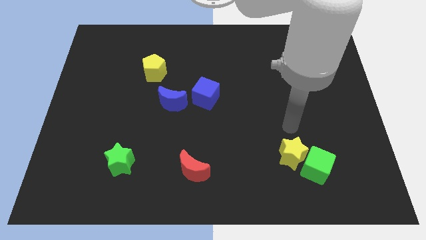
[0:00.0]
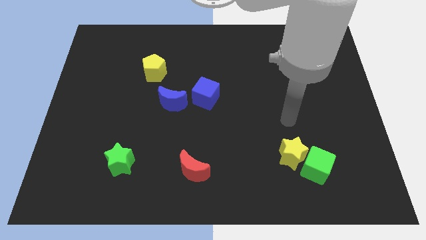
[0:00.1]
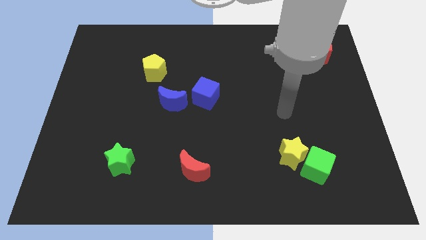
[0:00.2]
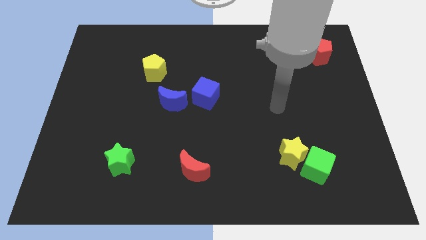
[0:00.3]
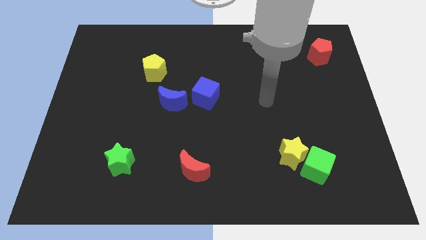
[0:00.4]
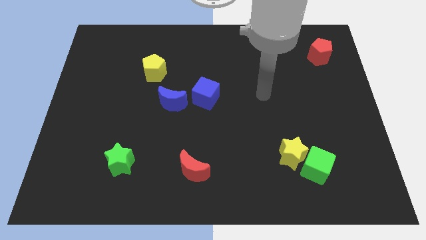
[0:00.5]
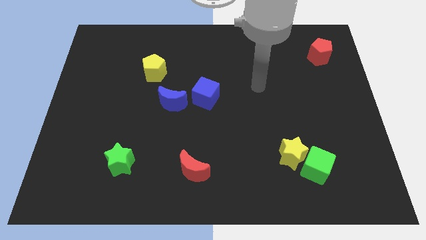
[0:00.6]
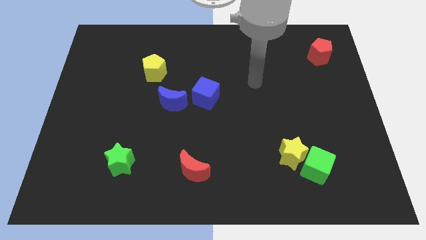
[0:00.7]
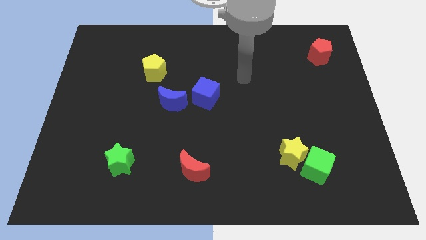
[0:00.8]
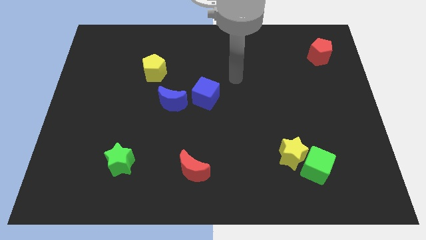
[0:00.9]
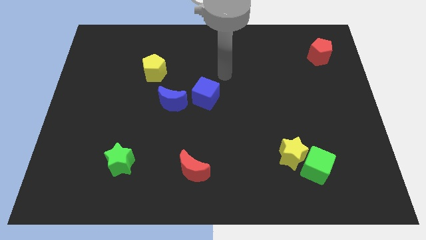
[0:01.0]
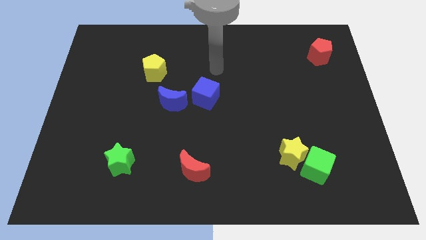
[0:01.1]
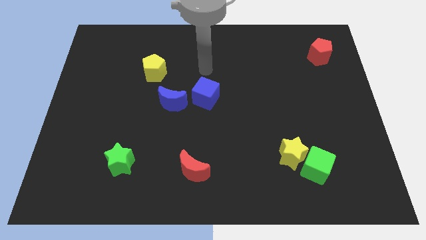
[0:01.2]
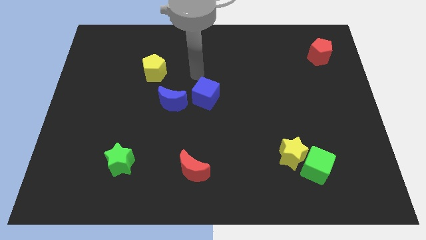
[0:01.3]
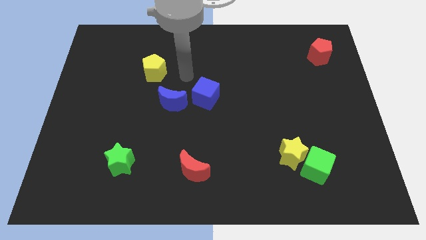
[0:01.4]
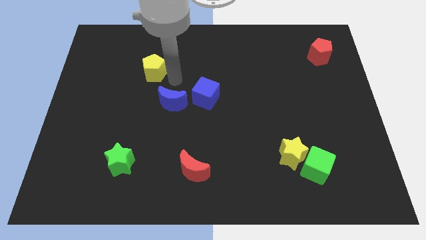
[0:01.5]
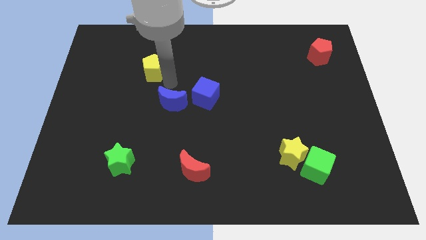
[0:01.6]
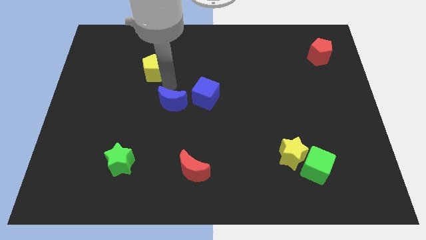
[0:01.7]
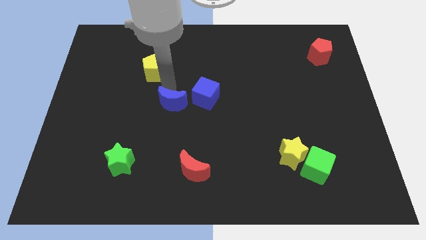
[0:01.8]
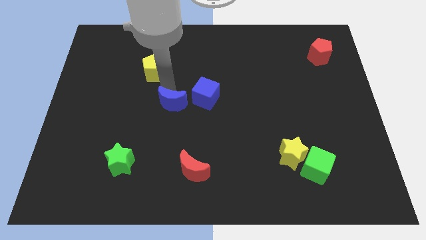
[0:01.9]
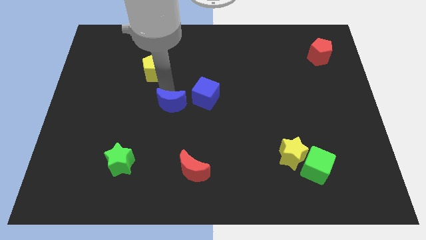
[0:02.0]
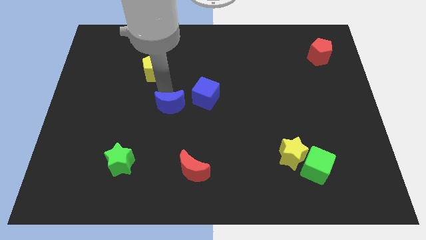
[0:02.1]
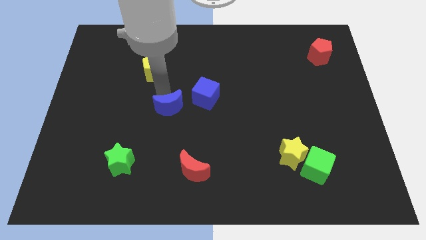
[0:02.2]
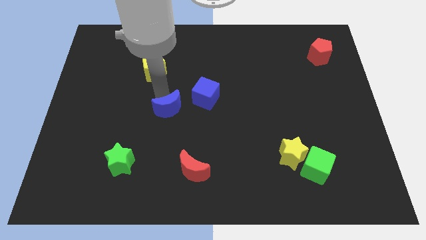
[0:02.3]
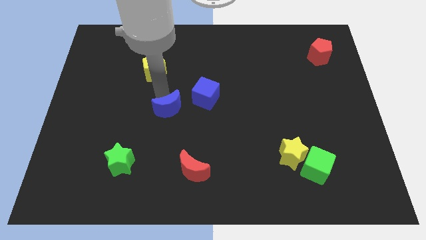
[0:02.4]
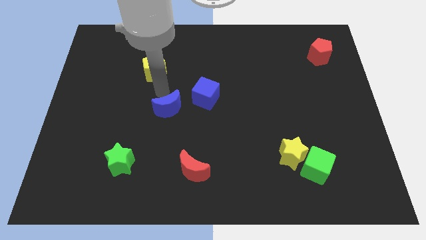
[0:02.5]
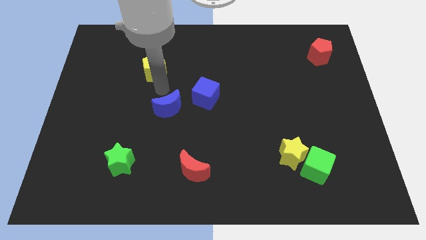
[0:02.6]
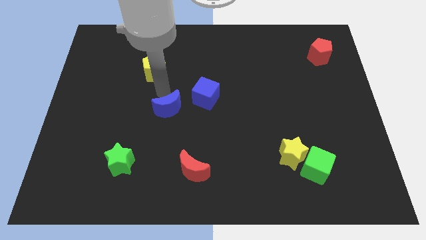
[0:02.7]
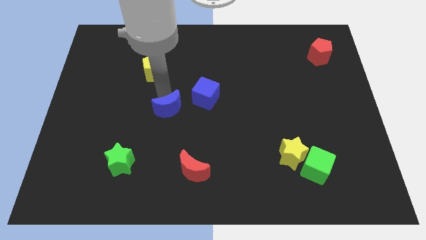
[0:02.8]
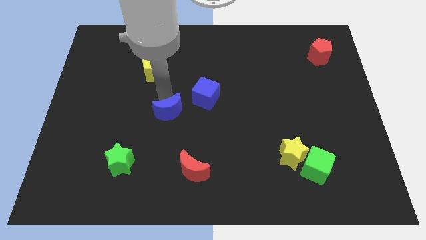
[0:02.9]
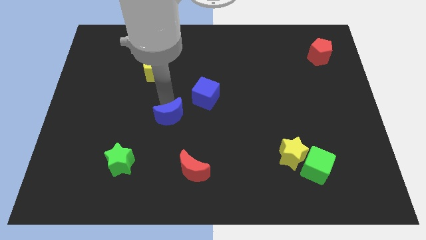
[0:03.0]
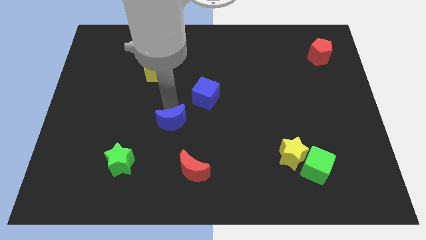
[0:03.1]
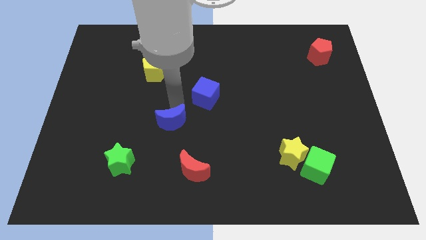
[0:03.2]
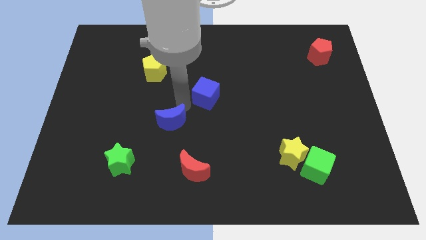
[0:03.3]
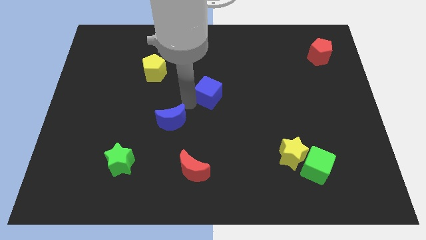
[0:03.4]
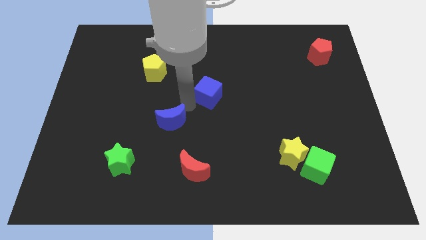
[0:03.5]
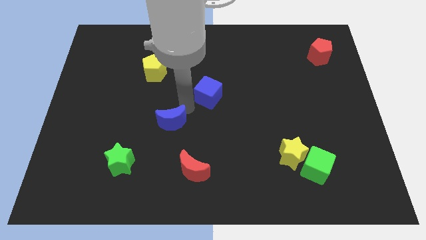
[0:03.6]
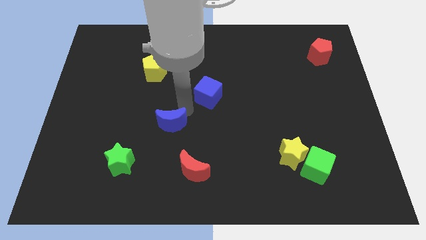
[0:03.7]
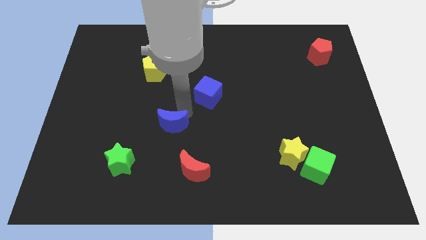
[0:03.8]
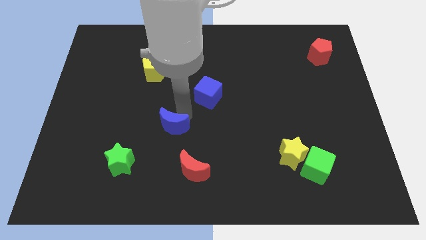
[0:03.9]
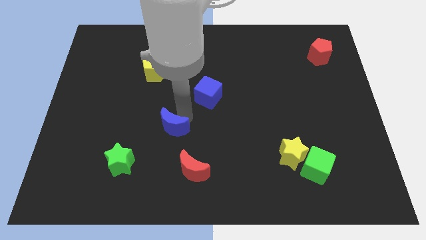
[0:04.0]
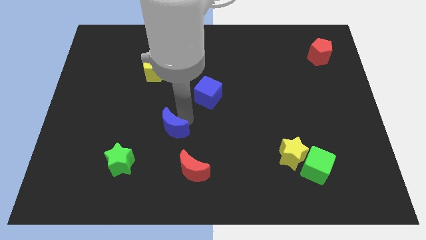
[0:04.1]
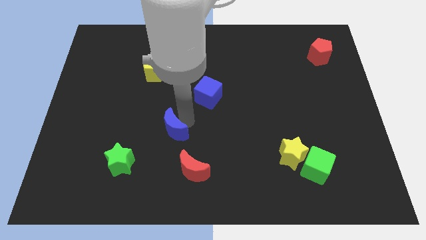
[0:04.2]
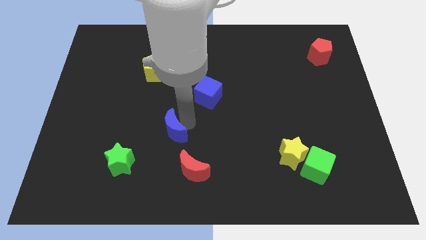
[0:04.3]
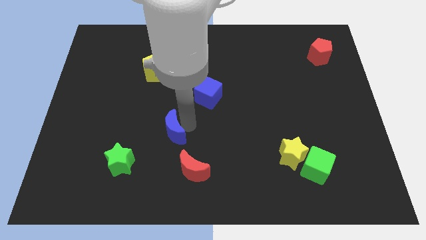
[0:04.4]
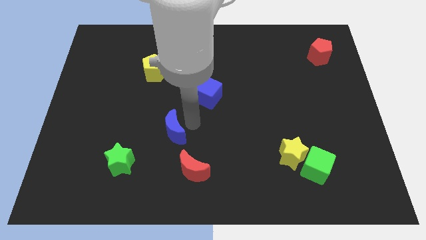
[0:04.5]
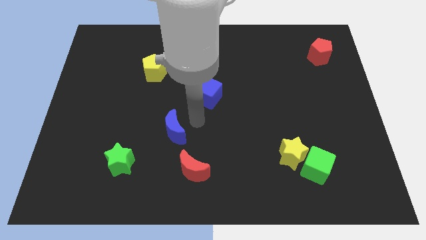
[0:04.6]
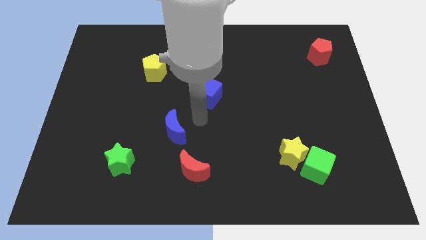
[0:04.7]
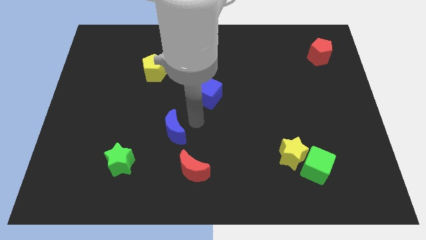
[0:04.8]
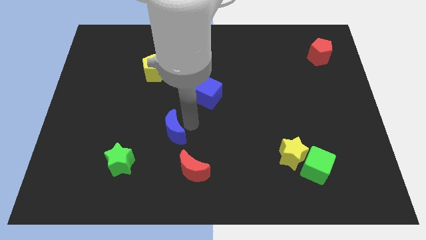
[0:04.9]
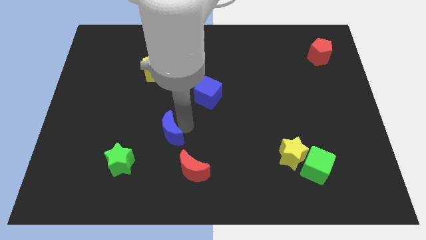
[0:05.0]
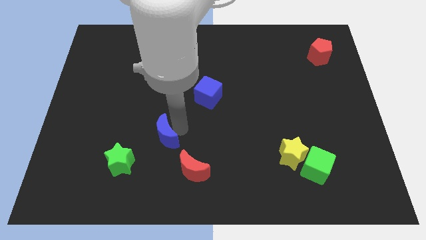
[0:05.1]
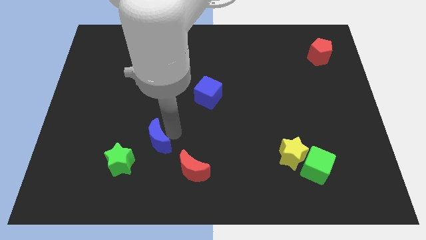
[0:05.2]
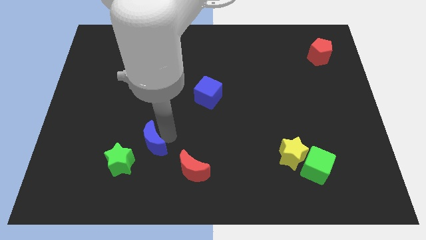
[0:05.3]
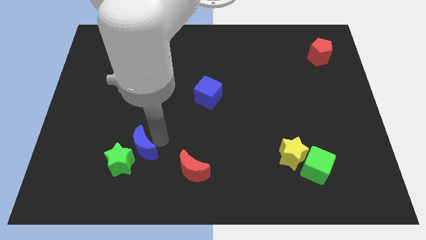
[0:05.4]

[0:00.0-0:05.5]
slide the blue moon close to the green star
